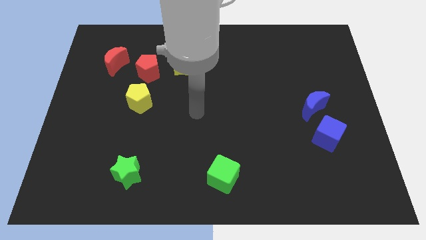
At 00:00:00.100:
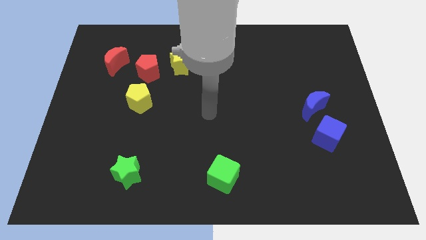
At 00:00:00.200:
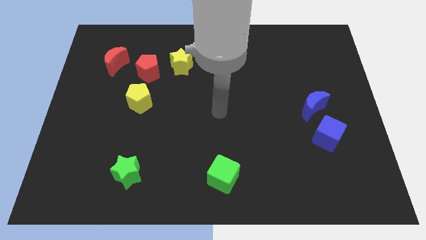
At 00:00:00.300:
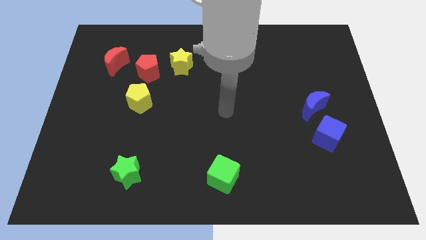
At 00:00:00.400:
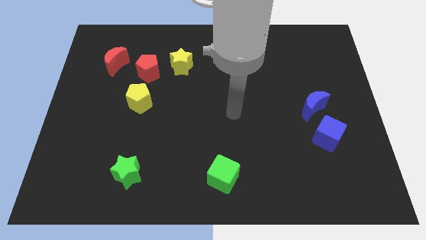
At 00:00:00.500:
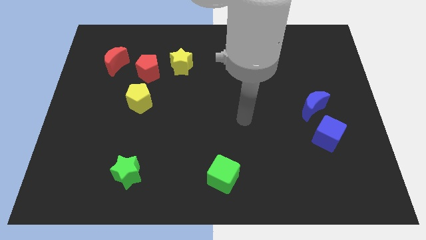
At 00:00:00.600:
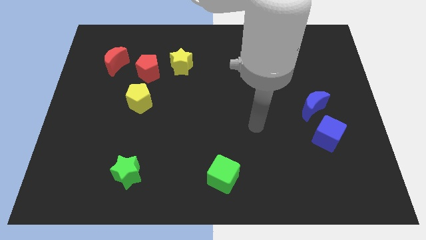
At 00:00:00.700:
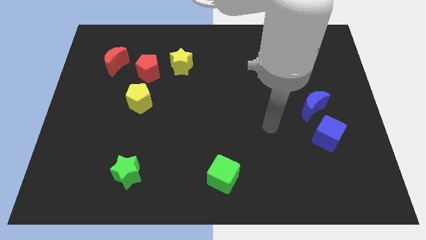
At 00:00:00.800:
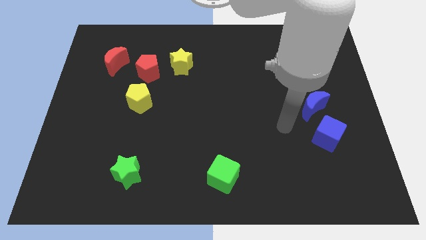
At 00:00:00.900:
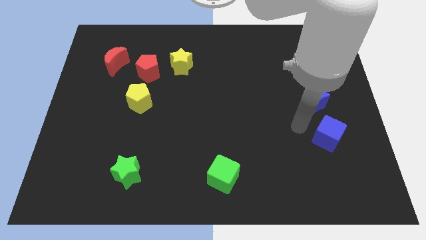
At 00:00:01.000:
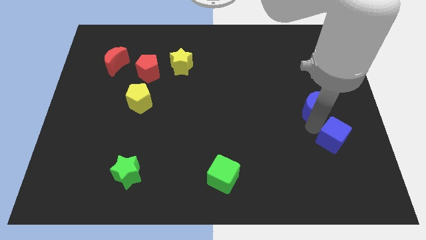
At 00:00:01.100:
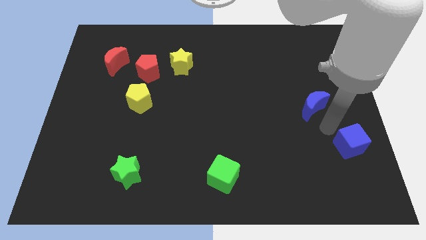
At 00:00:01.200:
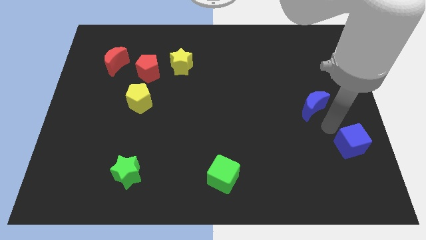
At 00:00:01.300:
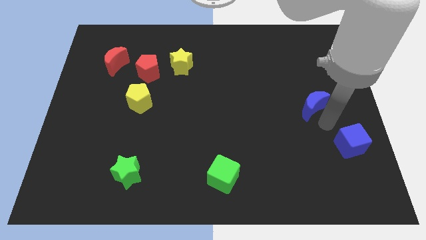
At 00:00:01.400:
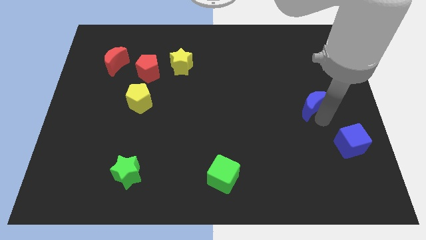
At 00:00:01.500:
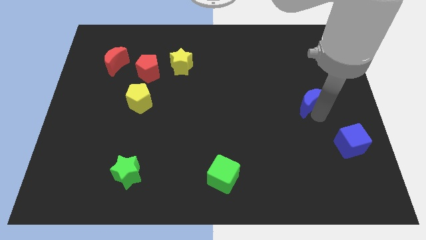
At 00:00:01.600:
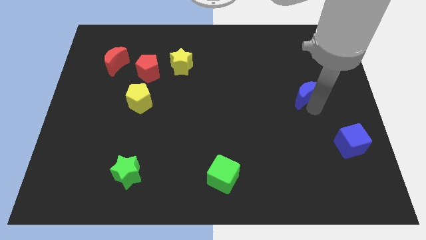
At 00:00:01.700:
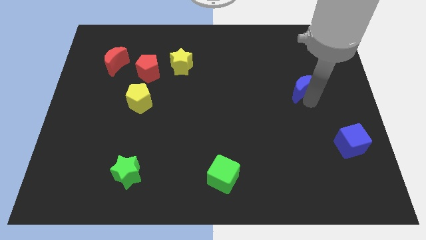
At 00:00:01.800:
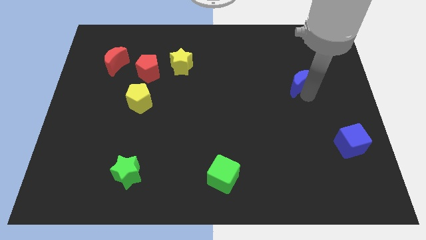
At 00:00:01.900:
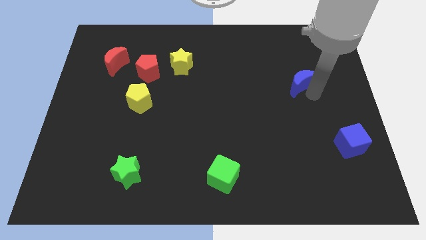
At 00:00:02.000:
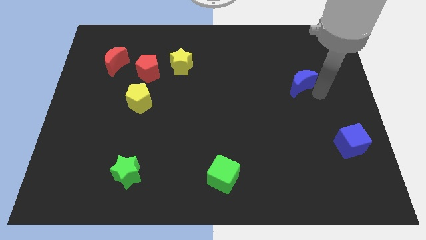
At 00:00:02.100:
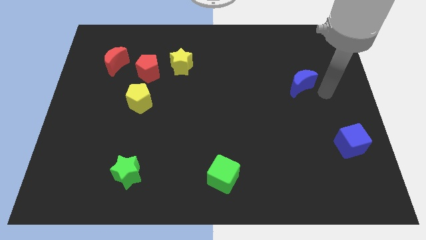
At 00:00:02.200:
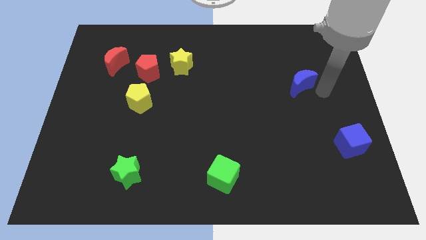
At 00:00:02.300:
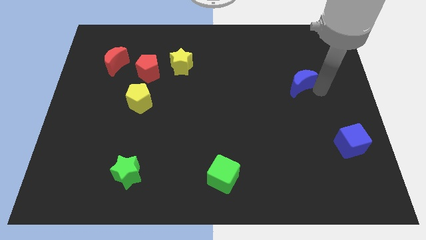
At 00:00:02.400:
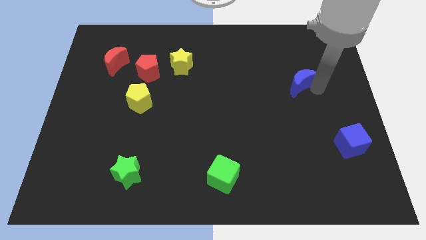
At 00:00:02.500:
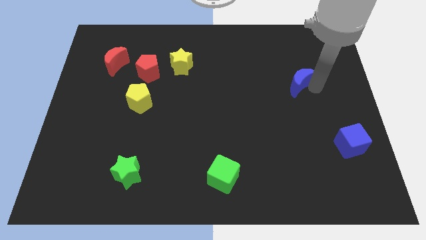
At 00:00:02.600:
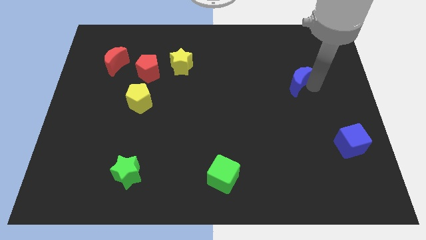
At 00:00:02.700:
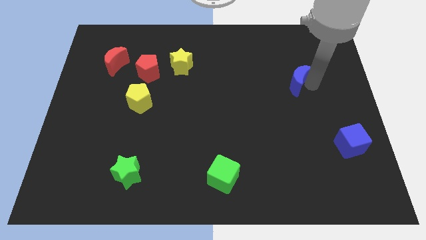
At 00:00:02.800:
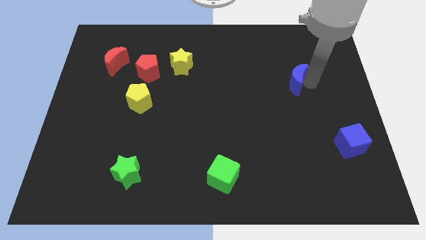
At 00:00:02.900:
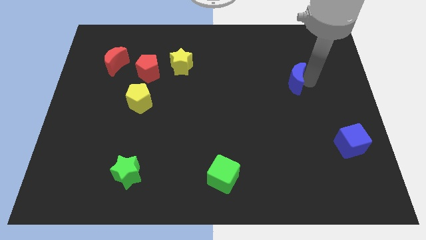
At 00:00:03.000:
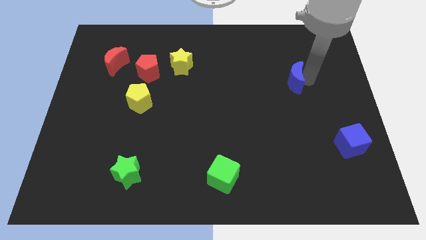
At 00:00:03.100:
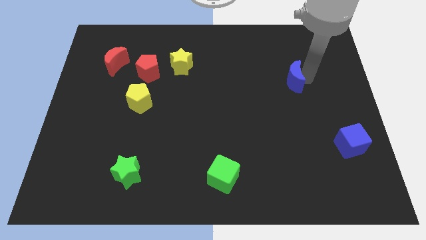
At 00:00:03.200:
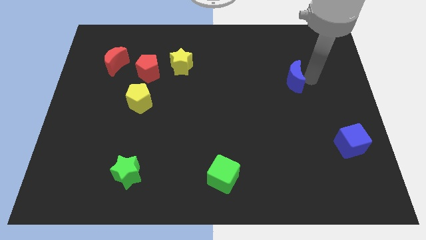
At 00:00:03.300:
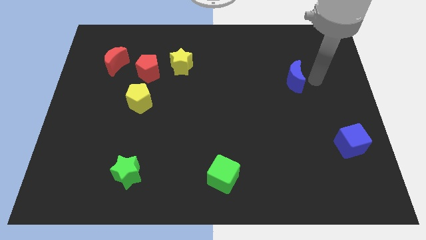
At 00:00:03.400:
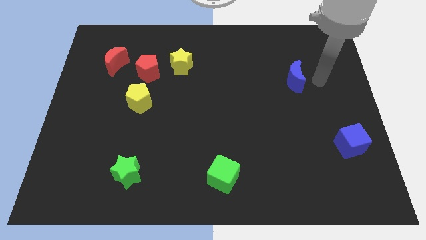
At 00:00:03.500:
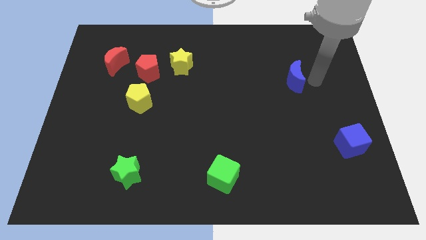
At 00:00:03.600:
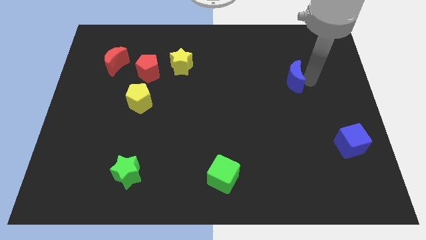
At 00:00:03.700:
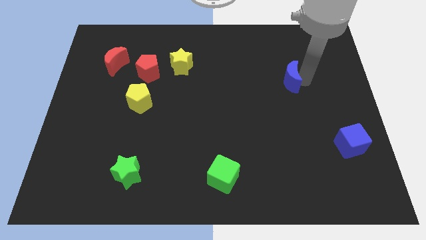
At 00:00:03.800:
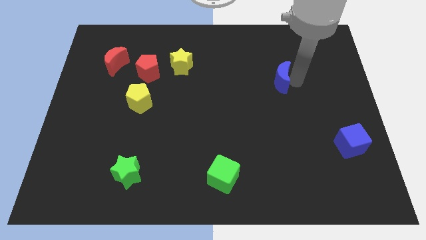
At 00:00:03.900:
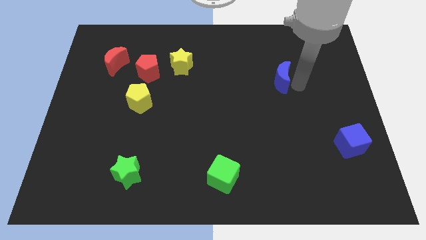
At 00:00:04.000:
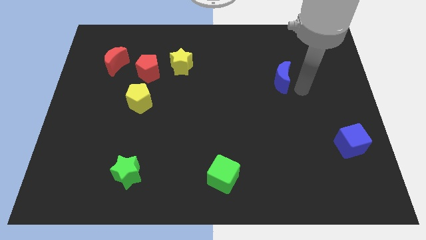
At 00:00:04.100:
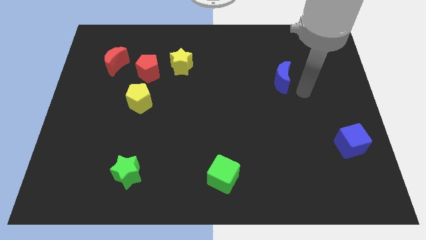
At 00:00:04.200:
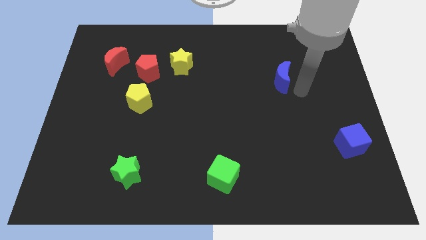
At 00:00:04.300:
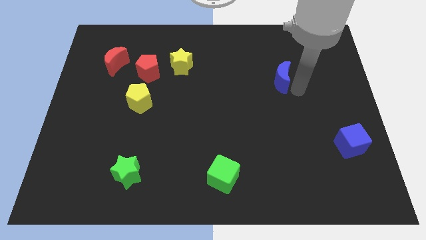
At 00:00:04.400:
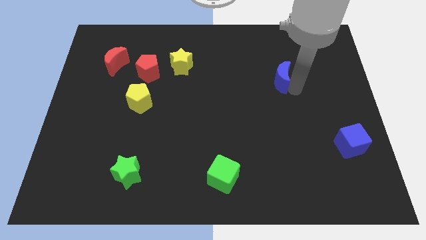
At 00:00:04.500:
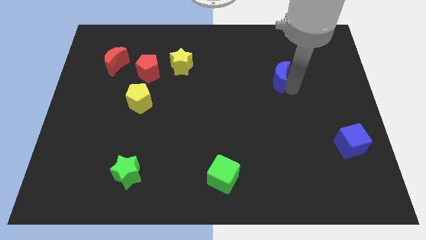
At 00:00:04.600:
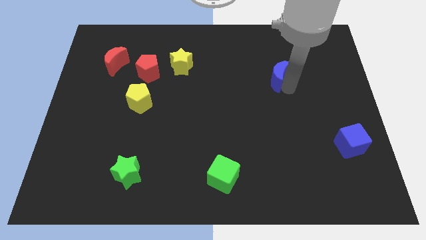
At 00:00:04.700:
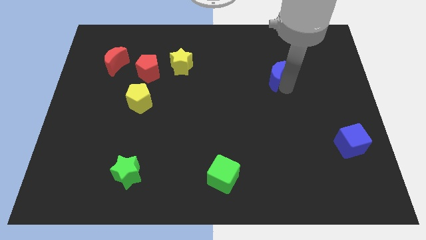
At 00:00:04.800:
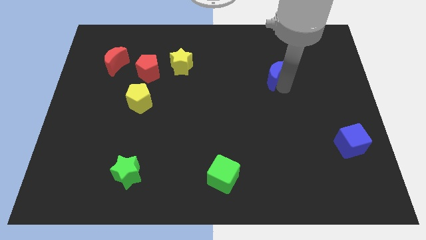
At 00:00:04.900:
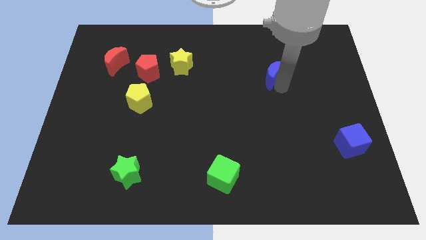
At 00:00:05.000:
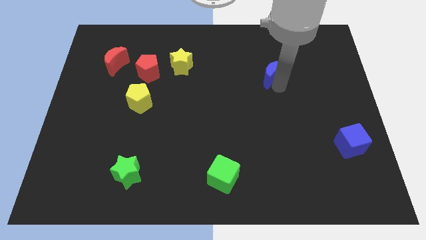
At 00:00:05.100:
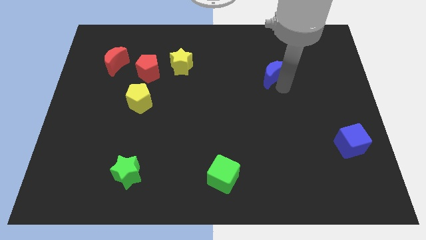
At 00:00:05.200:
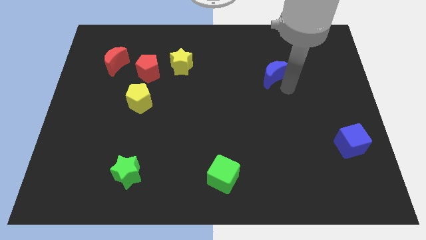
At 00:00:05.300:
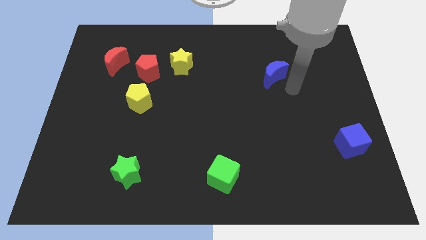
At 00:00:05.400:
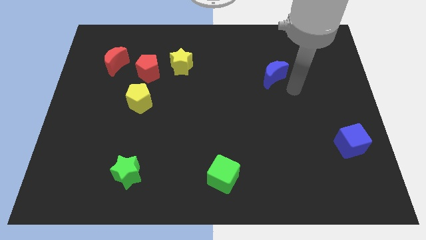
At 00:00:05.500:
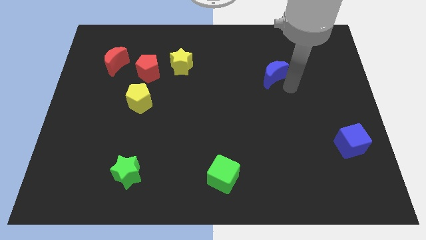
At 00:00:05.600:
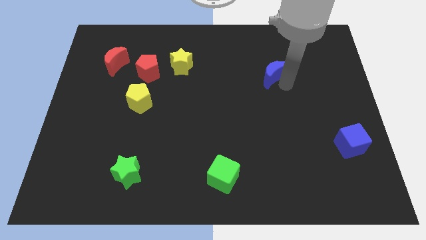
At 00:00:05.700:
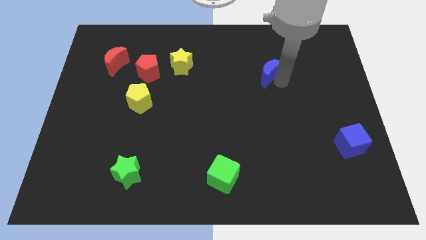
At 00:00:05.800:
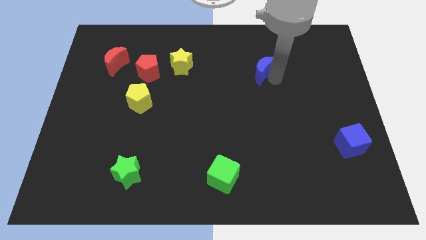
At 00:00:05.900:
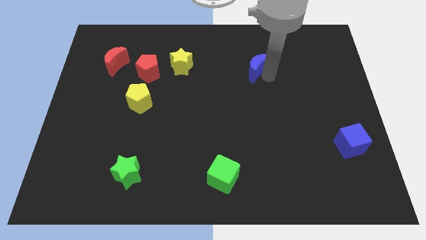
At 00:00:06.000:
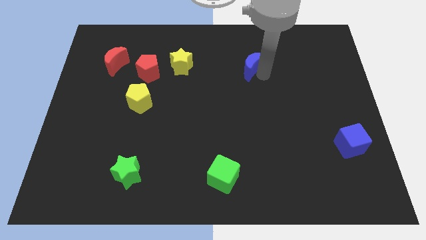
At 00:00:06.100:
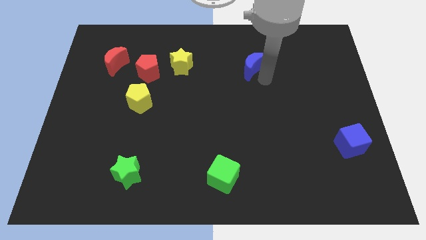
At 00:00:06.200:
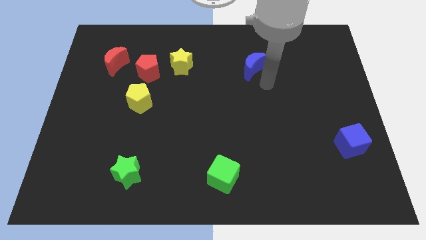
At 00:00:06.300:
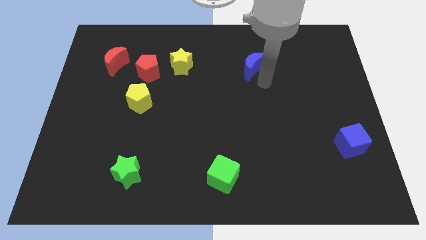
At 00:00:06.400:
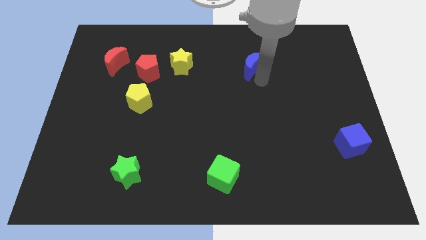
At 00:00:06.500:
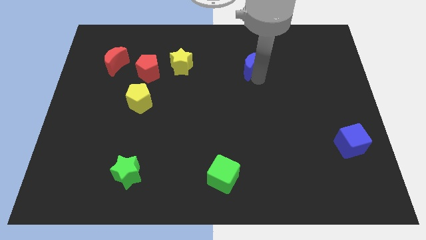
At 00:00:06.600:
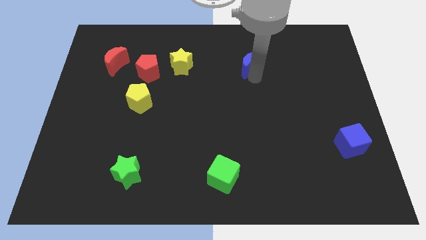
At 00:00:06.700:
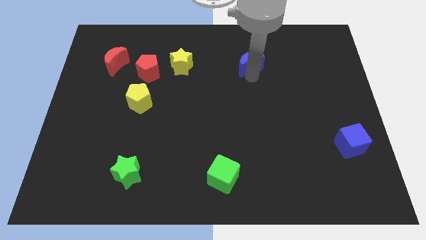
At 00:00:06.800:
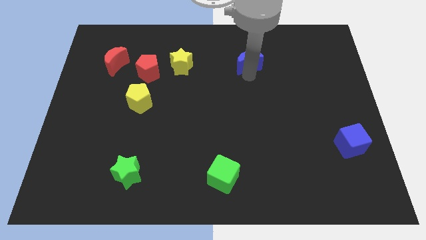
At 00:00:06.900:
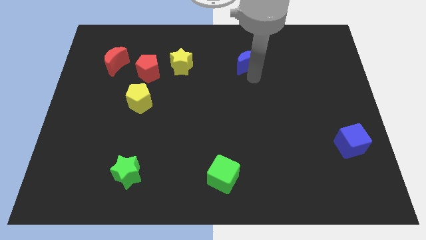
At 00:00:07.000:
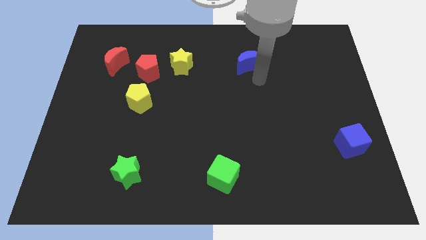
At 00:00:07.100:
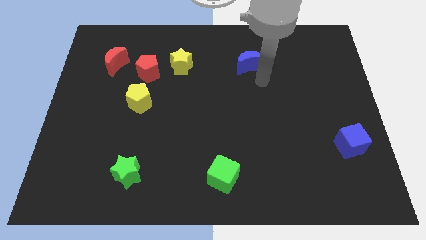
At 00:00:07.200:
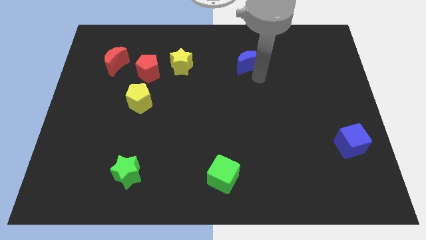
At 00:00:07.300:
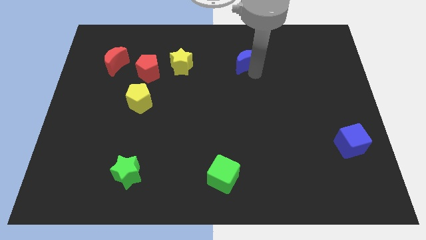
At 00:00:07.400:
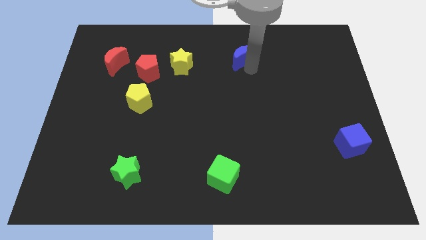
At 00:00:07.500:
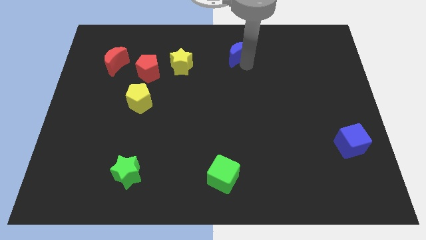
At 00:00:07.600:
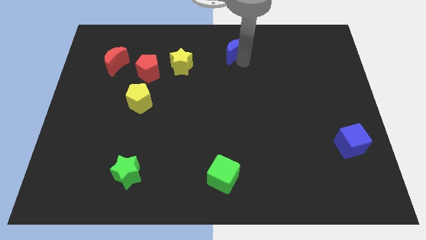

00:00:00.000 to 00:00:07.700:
put the blue moon to the top
